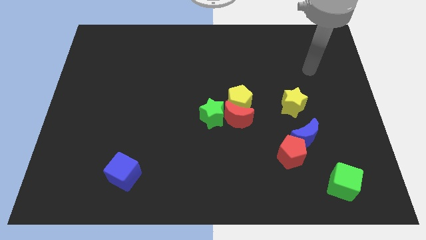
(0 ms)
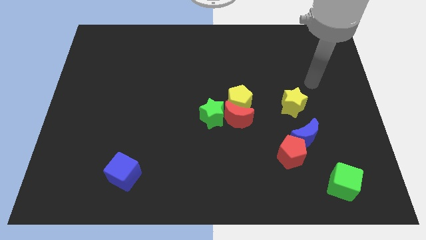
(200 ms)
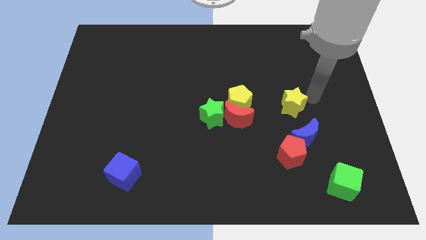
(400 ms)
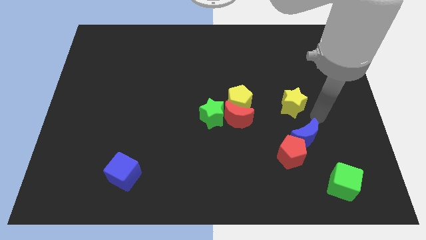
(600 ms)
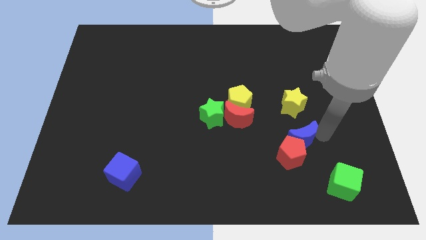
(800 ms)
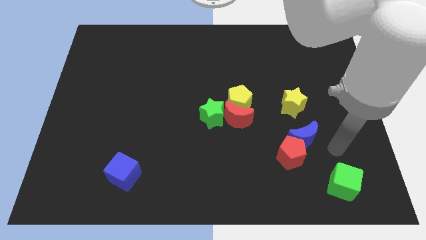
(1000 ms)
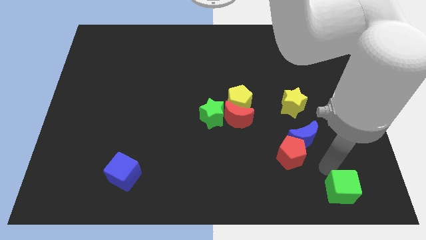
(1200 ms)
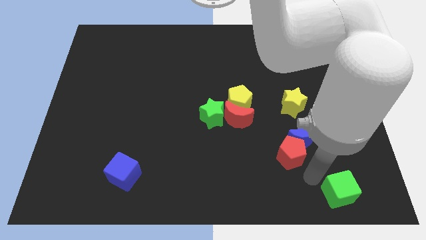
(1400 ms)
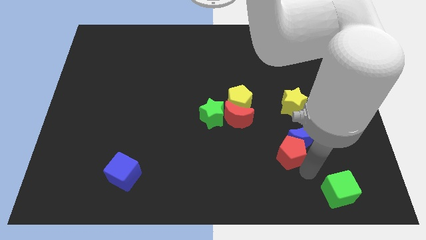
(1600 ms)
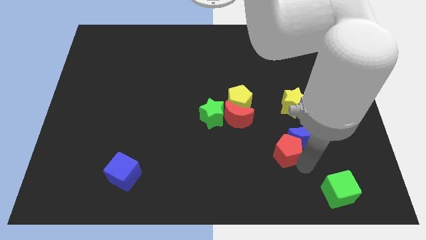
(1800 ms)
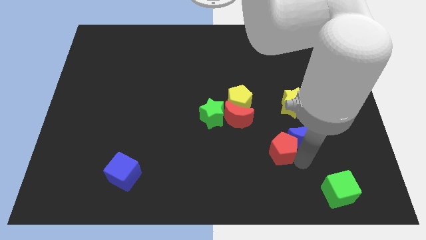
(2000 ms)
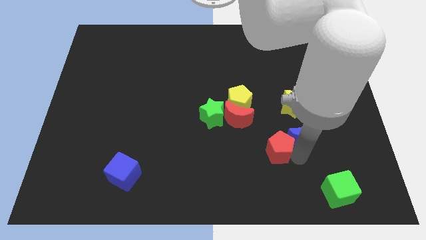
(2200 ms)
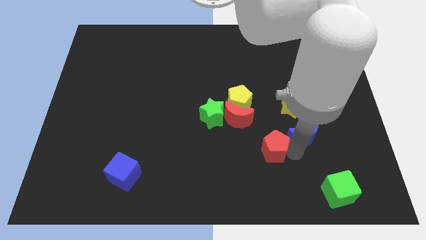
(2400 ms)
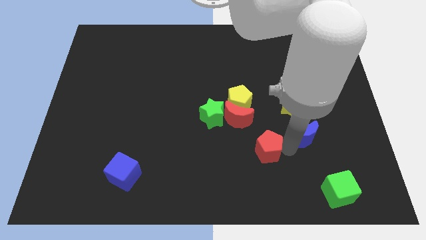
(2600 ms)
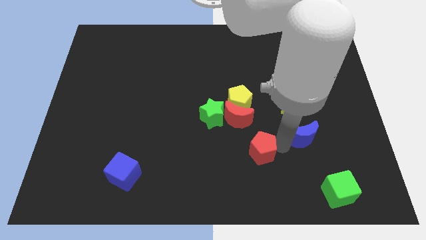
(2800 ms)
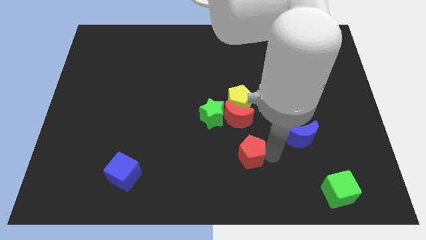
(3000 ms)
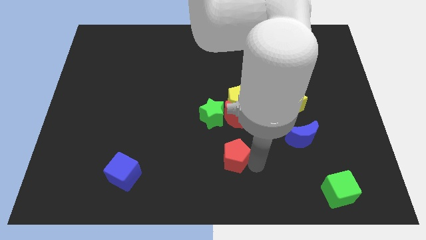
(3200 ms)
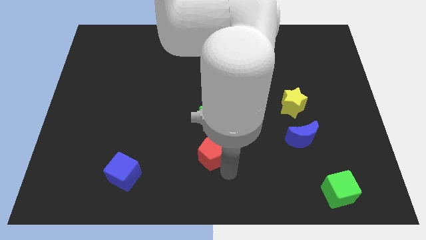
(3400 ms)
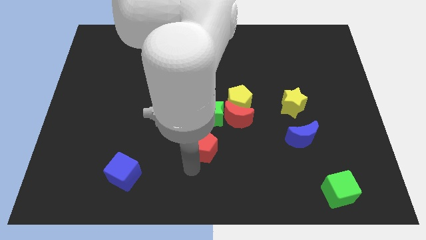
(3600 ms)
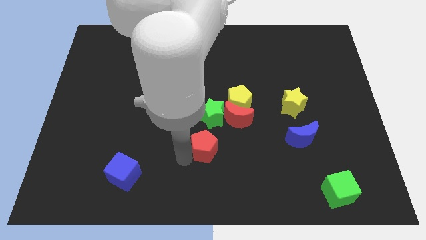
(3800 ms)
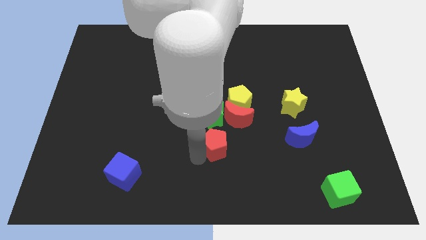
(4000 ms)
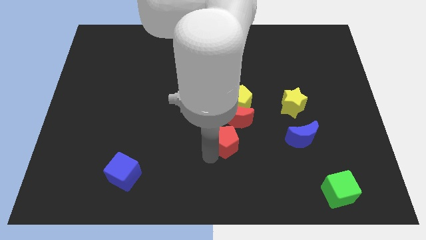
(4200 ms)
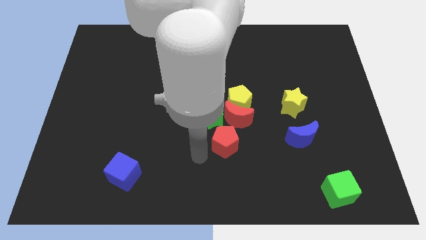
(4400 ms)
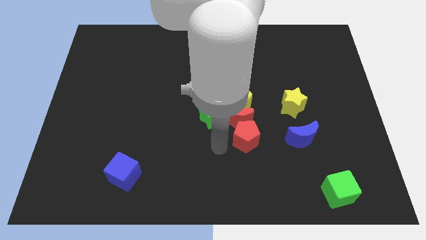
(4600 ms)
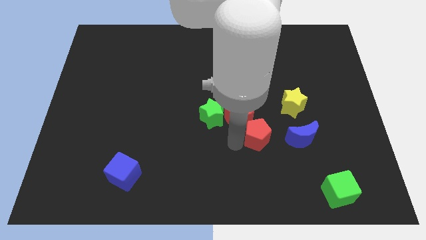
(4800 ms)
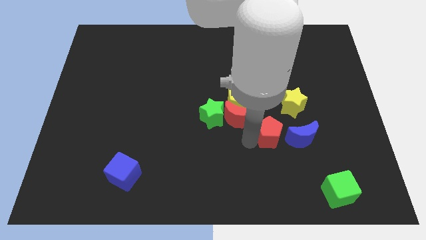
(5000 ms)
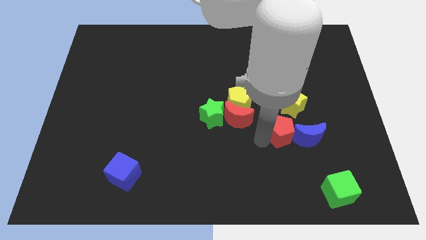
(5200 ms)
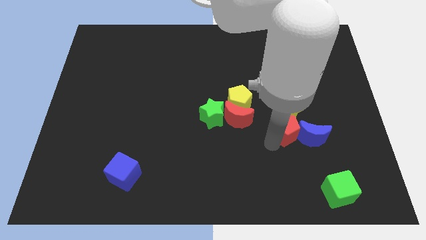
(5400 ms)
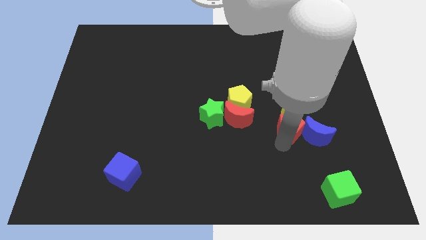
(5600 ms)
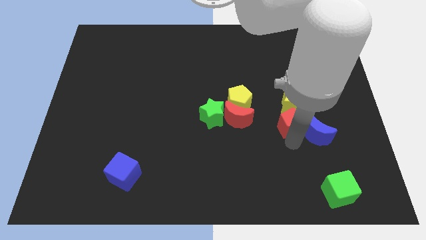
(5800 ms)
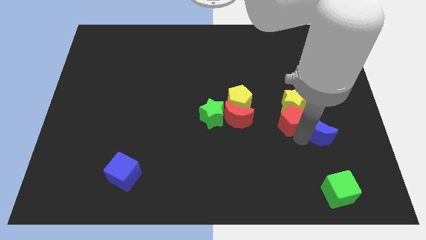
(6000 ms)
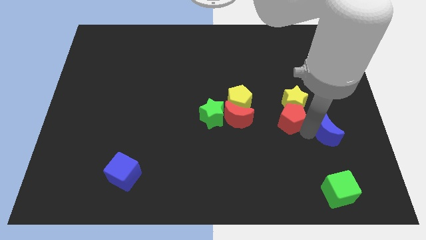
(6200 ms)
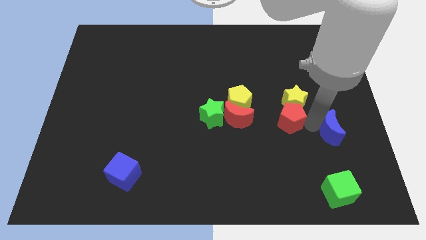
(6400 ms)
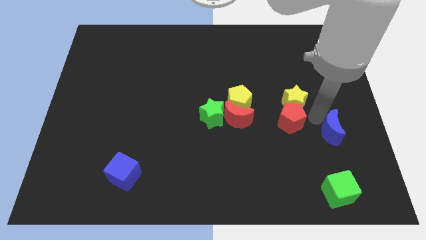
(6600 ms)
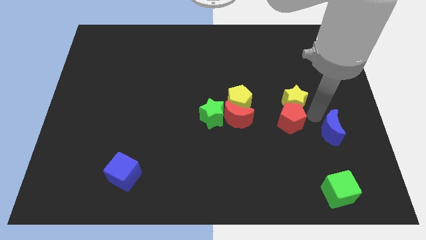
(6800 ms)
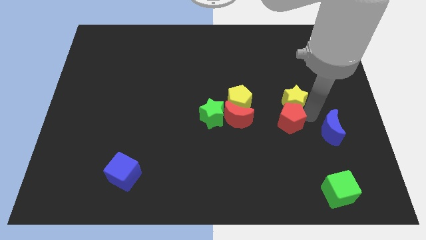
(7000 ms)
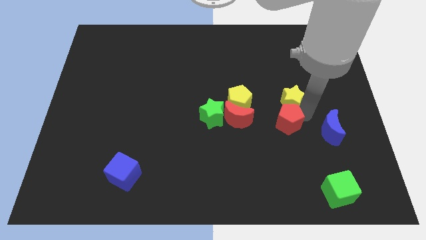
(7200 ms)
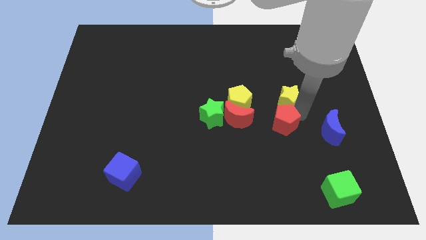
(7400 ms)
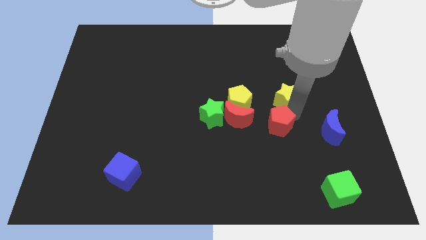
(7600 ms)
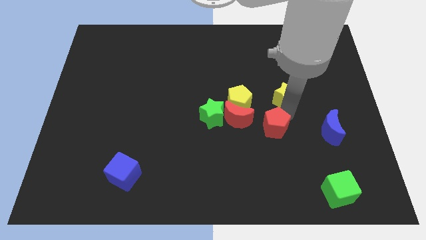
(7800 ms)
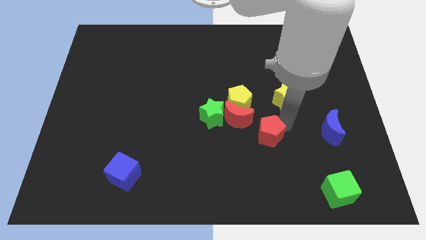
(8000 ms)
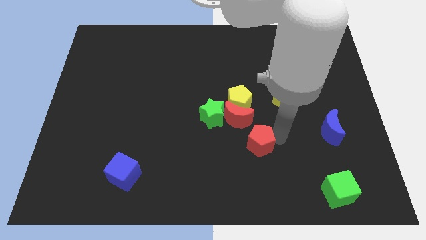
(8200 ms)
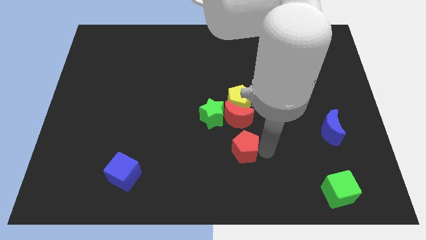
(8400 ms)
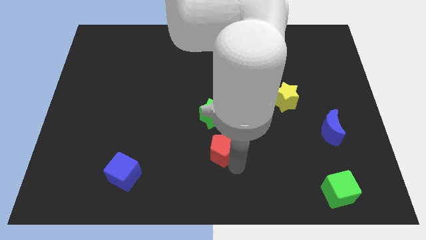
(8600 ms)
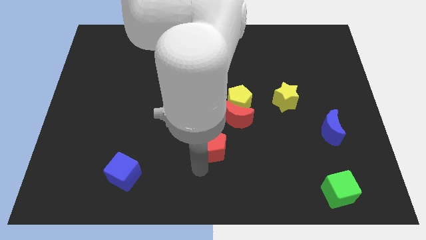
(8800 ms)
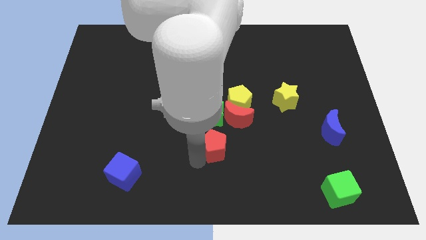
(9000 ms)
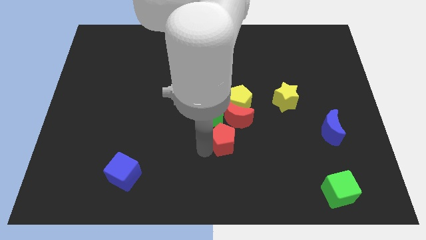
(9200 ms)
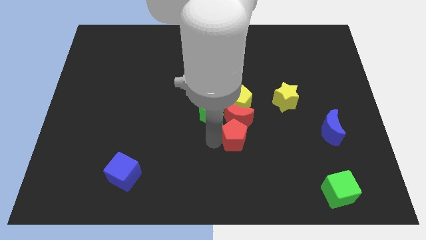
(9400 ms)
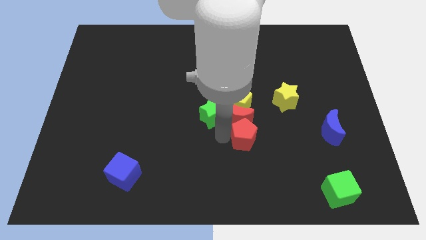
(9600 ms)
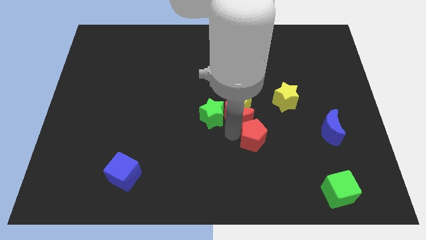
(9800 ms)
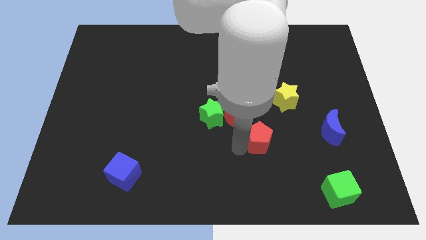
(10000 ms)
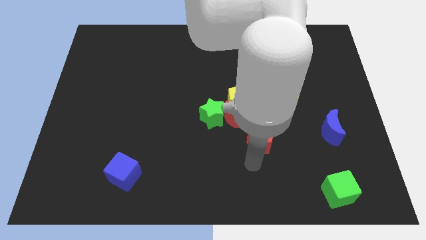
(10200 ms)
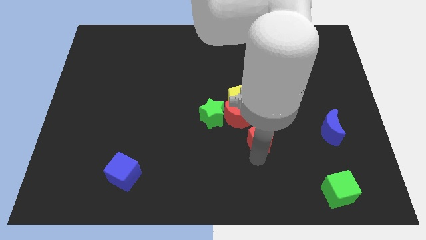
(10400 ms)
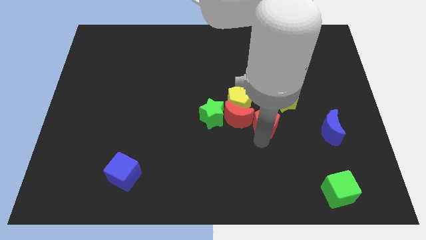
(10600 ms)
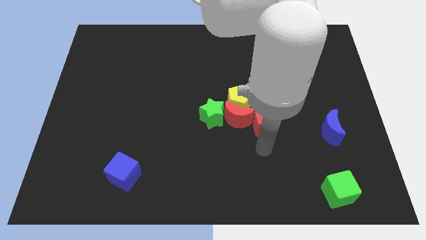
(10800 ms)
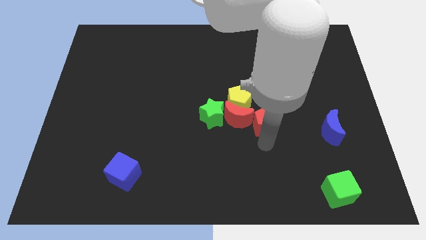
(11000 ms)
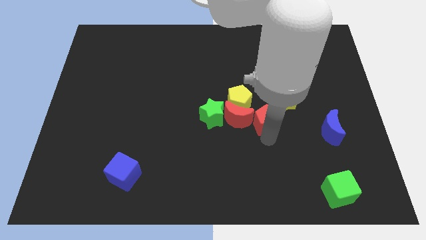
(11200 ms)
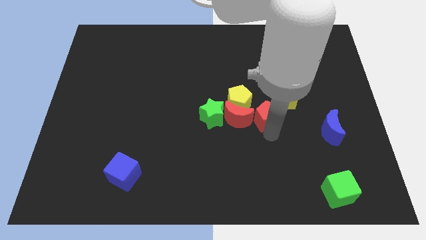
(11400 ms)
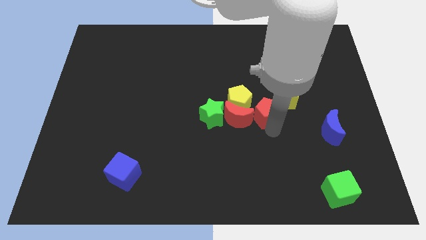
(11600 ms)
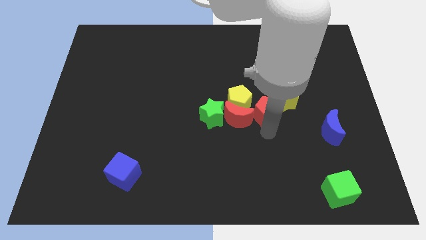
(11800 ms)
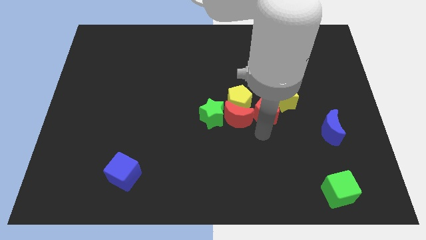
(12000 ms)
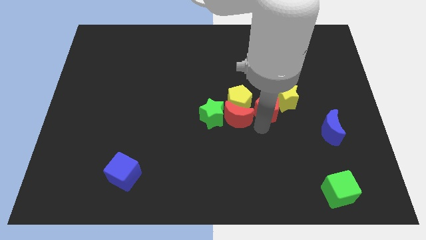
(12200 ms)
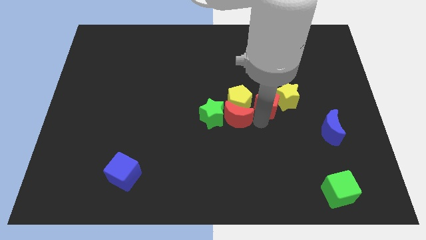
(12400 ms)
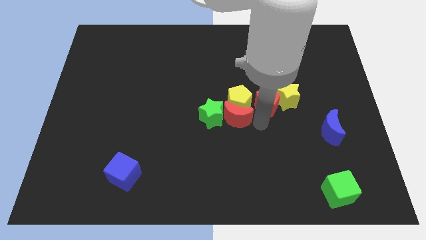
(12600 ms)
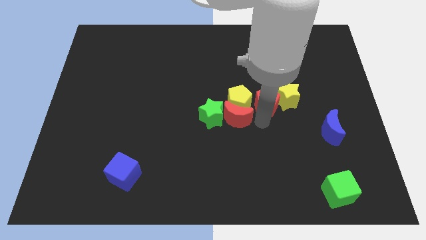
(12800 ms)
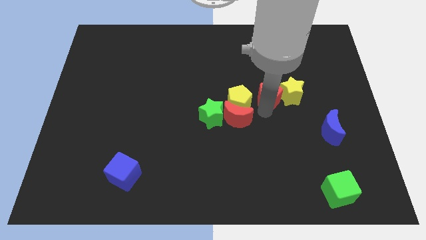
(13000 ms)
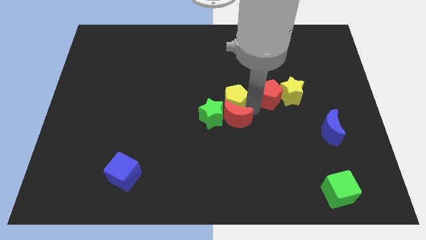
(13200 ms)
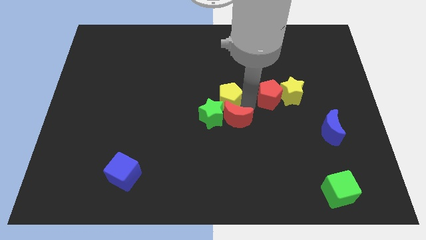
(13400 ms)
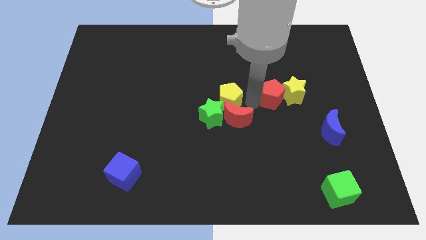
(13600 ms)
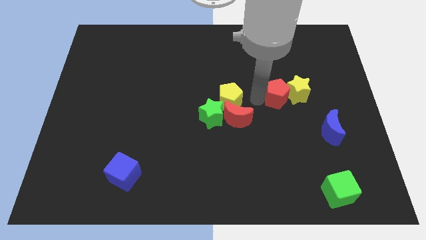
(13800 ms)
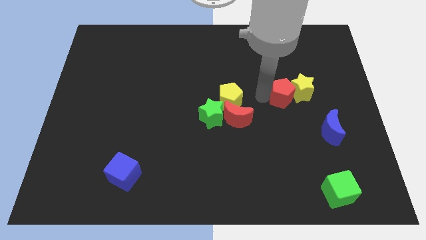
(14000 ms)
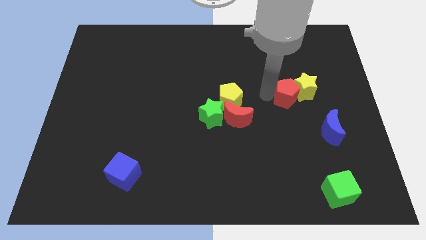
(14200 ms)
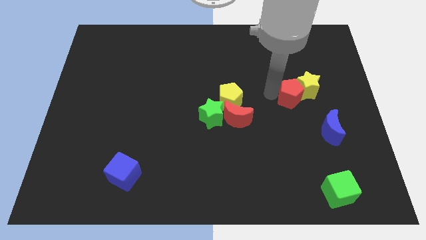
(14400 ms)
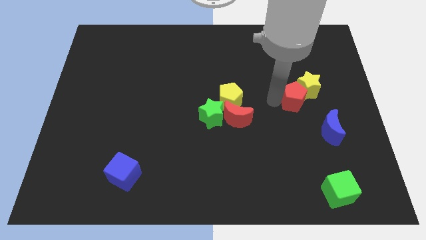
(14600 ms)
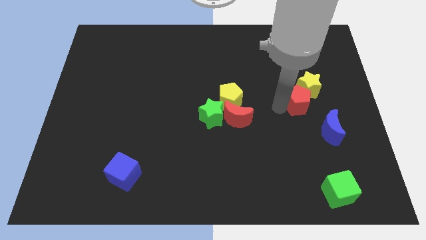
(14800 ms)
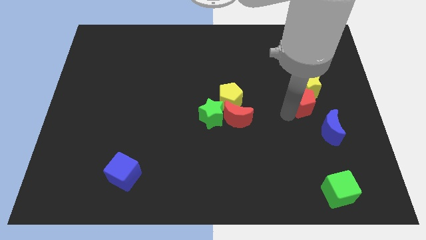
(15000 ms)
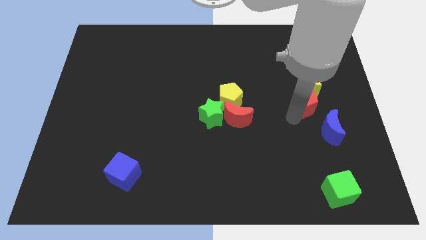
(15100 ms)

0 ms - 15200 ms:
push the red pentagon above the blue moon
